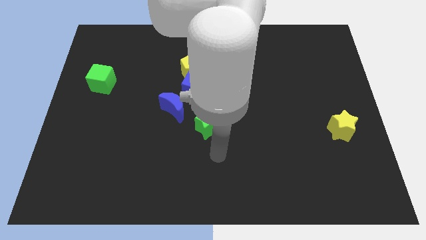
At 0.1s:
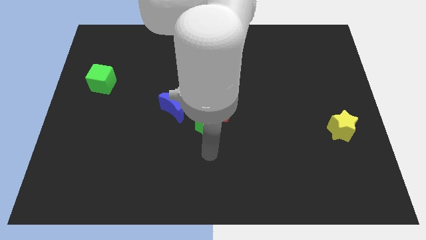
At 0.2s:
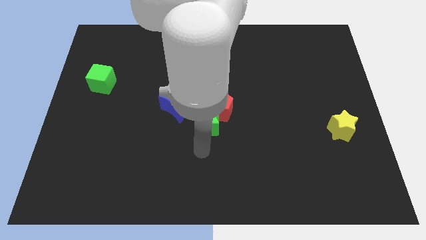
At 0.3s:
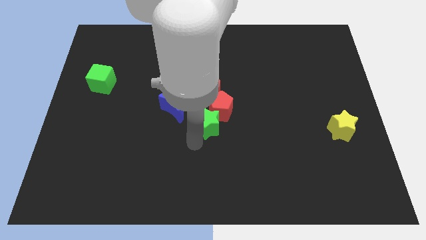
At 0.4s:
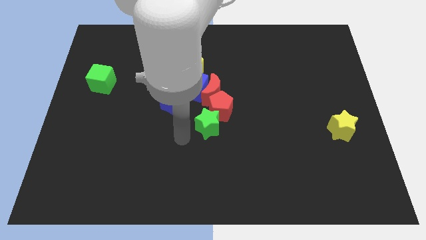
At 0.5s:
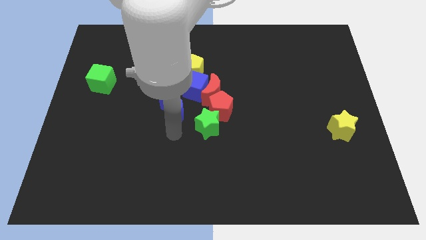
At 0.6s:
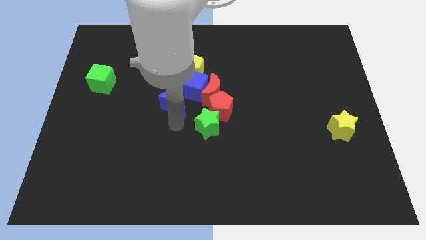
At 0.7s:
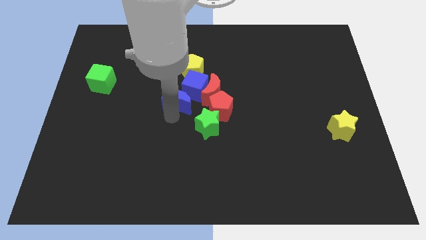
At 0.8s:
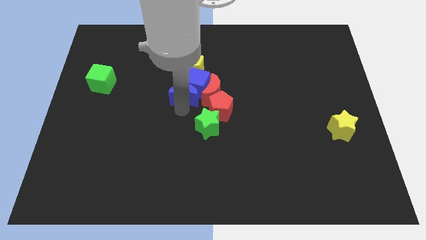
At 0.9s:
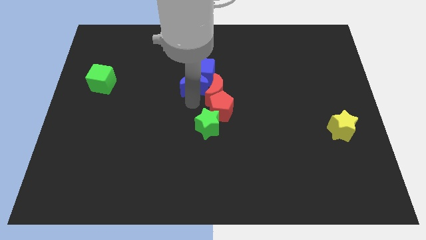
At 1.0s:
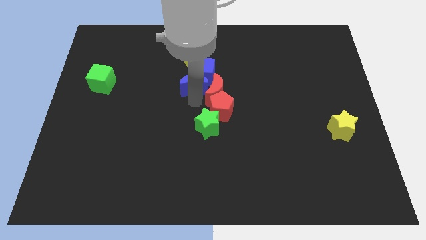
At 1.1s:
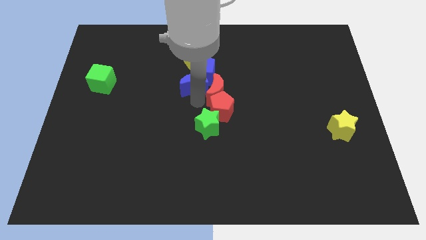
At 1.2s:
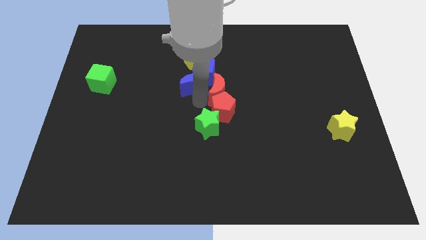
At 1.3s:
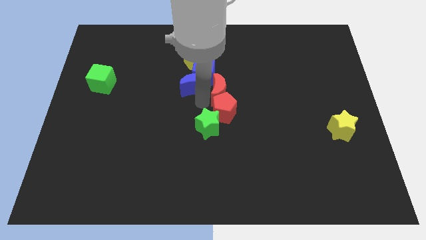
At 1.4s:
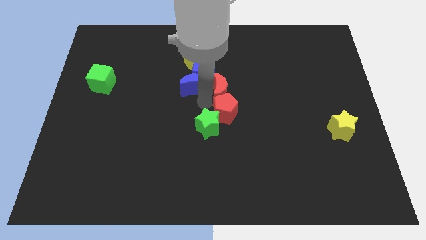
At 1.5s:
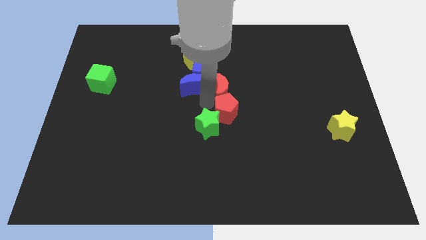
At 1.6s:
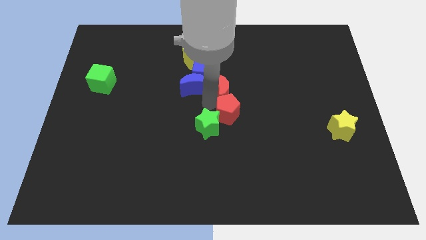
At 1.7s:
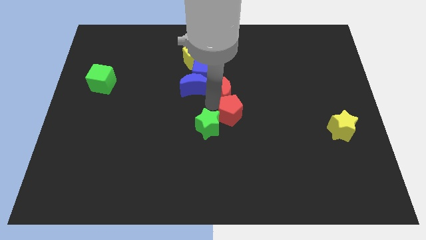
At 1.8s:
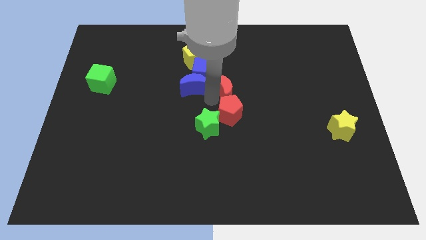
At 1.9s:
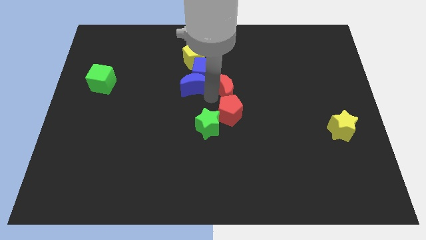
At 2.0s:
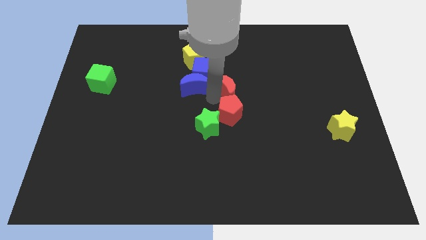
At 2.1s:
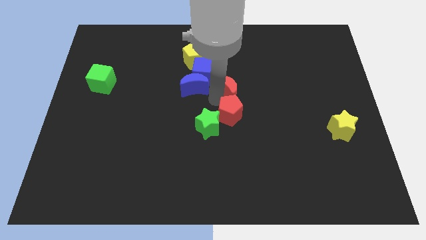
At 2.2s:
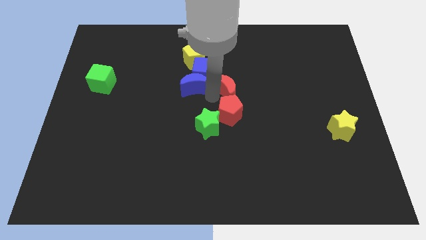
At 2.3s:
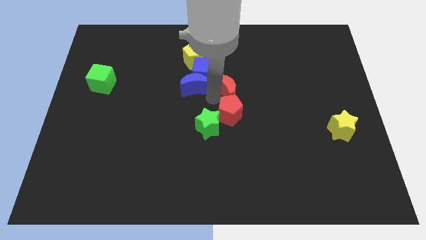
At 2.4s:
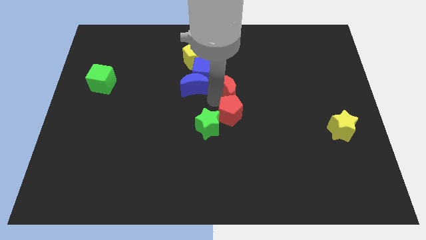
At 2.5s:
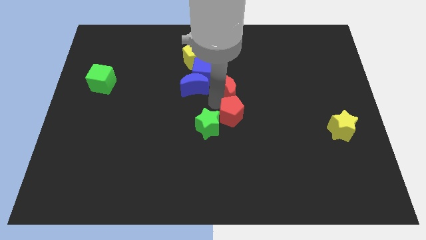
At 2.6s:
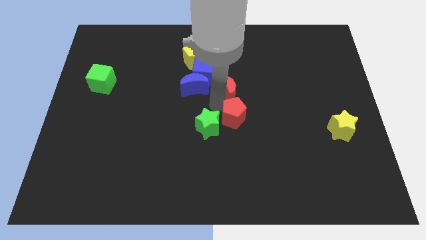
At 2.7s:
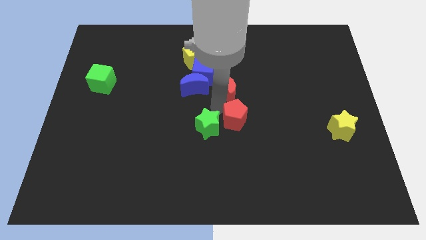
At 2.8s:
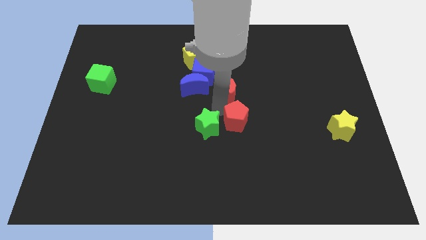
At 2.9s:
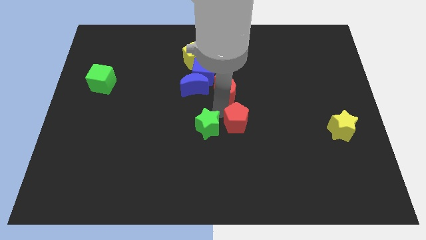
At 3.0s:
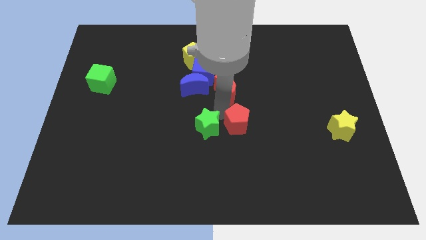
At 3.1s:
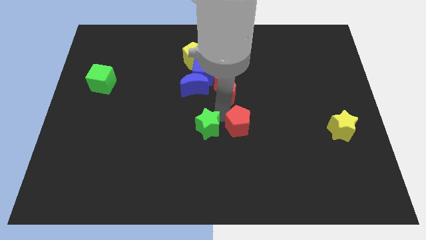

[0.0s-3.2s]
separate the red pentagon from the red moon, green star, and blue cube

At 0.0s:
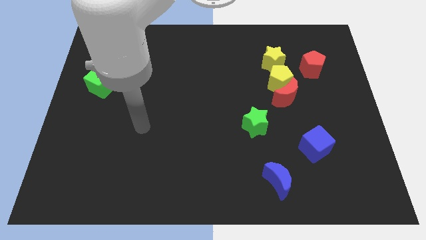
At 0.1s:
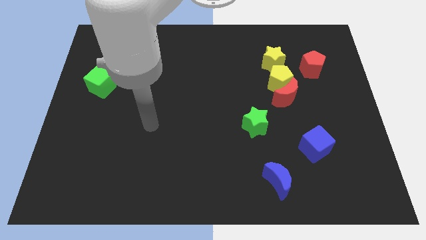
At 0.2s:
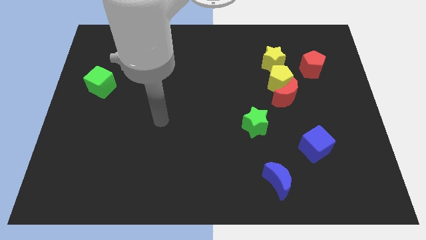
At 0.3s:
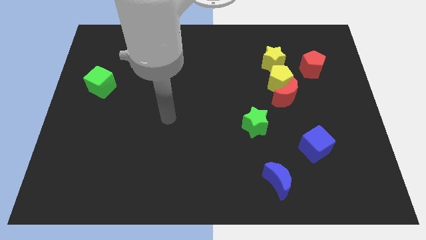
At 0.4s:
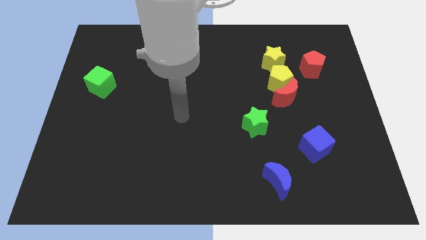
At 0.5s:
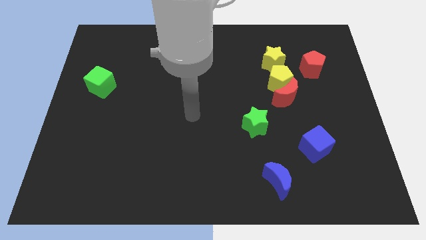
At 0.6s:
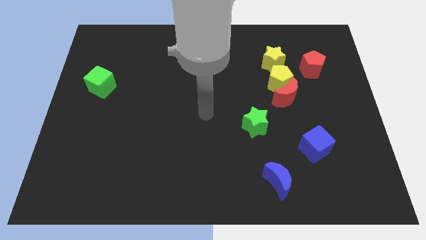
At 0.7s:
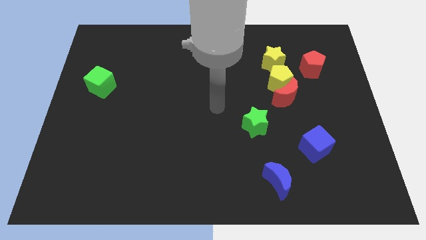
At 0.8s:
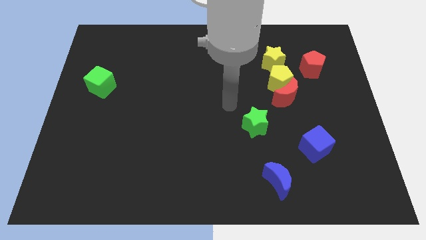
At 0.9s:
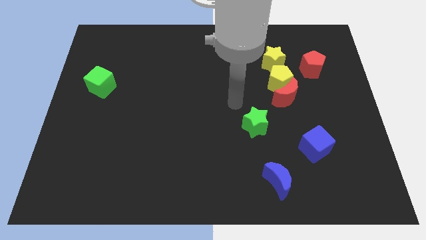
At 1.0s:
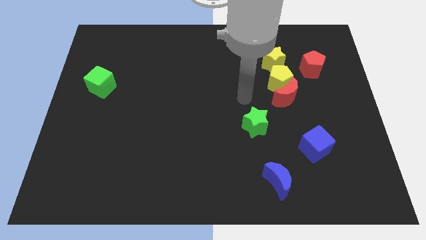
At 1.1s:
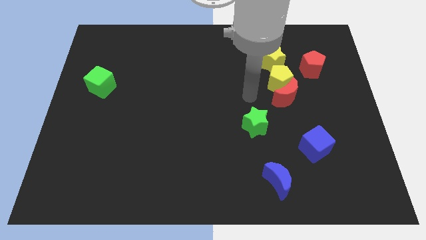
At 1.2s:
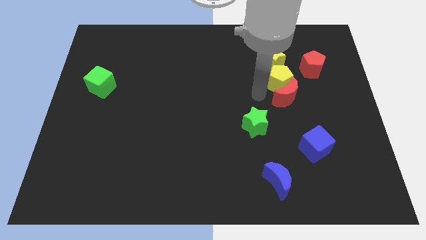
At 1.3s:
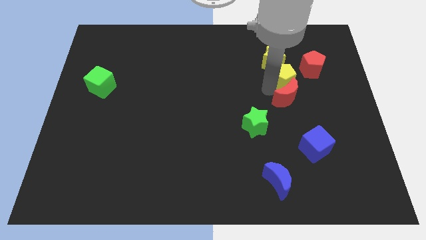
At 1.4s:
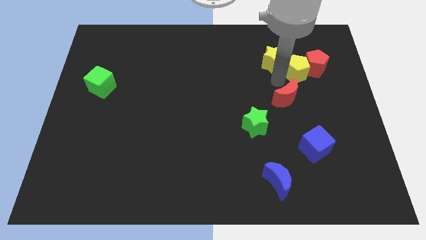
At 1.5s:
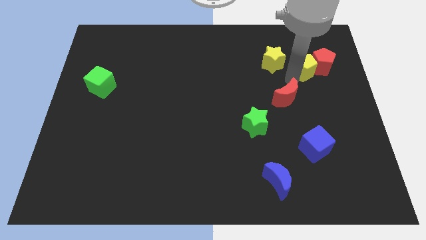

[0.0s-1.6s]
separate the red moon from the yellow pentagon

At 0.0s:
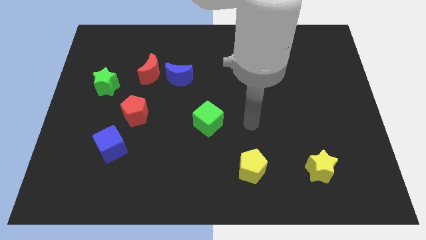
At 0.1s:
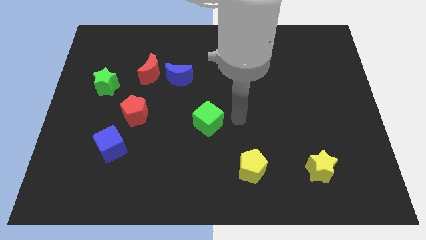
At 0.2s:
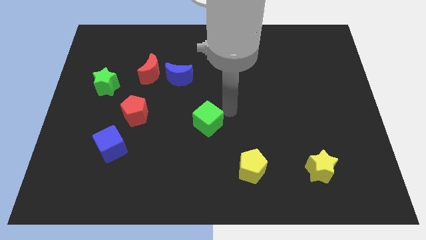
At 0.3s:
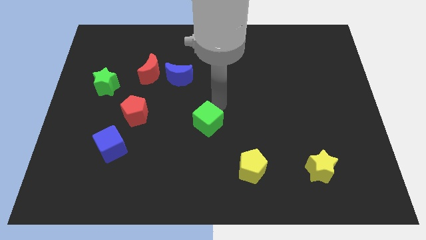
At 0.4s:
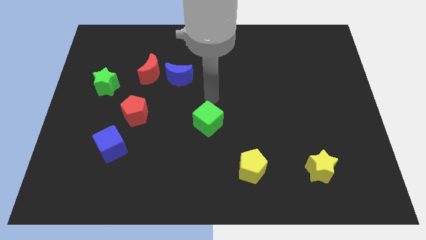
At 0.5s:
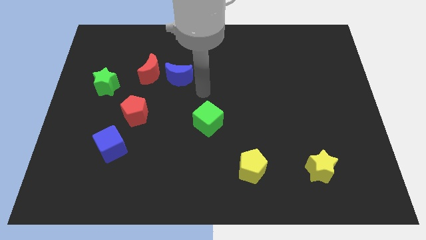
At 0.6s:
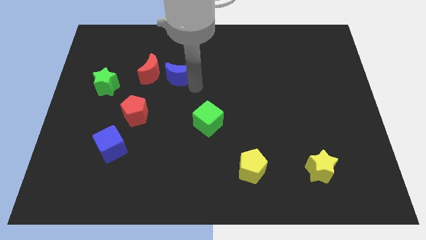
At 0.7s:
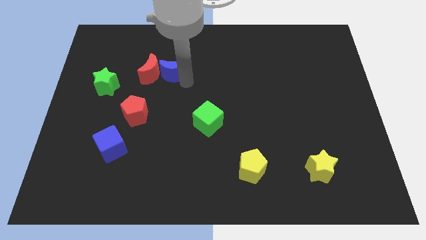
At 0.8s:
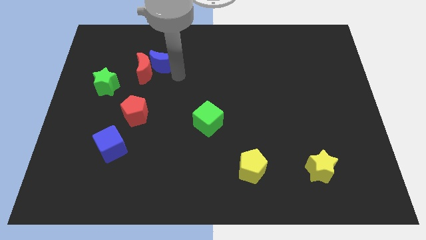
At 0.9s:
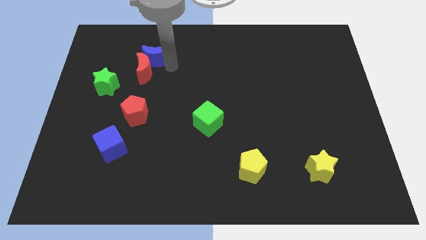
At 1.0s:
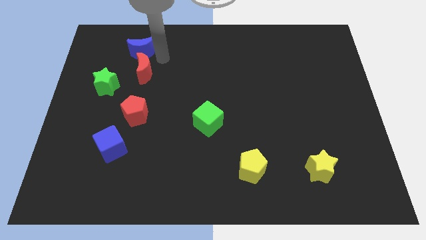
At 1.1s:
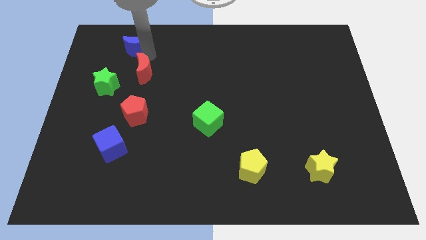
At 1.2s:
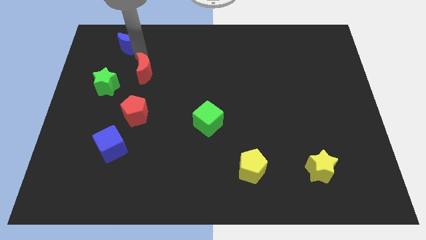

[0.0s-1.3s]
pull the red moon apart from the blue moon

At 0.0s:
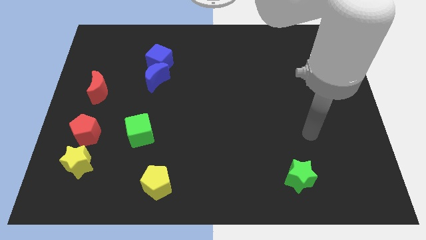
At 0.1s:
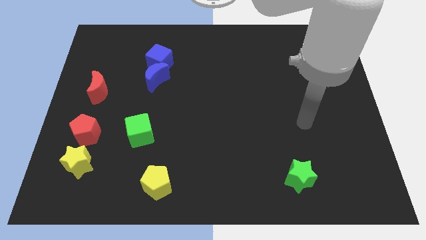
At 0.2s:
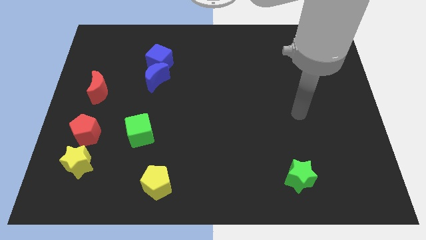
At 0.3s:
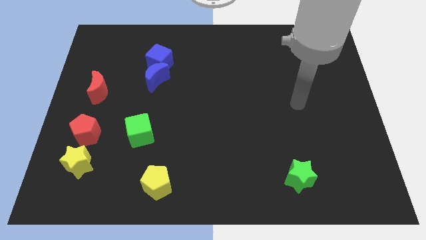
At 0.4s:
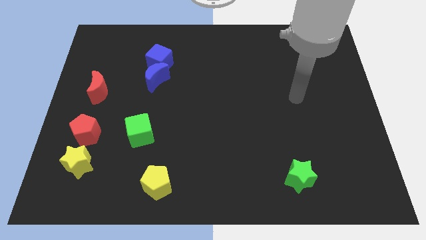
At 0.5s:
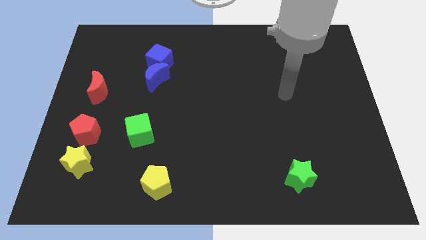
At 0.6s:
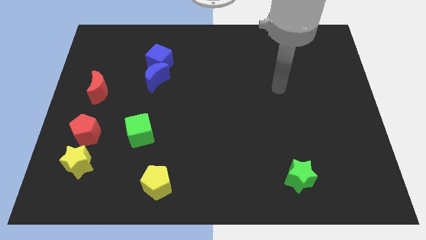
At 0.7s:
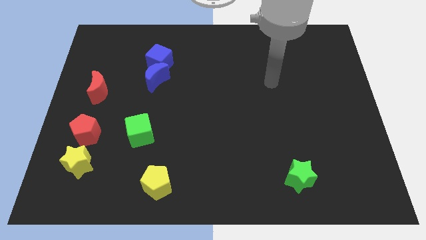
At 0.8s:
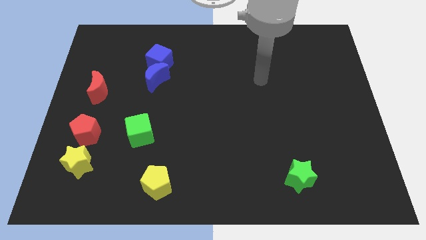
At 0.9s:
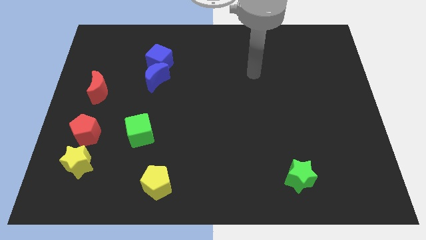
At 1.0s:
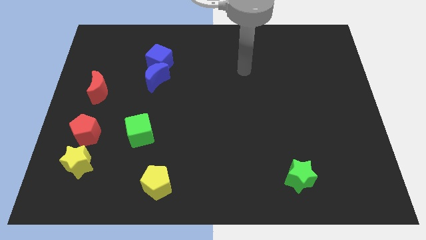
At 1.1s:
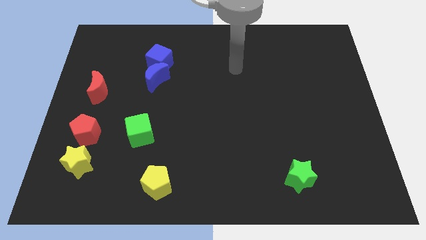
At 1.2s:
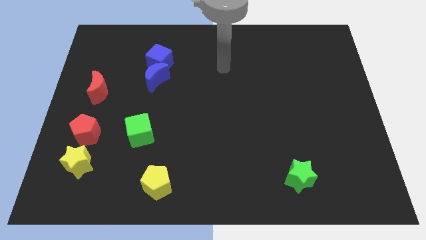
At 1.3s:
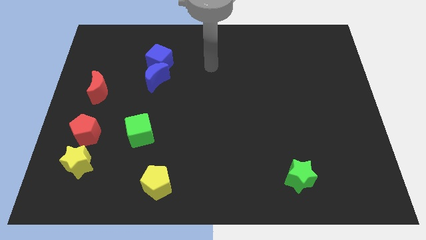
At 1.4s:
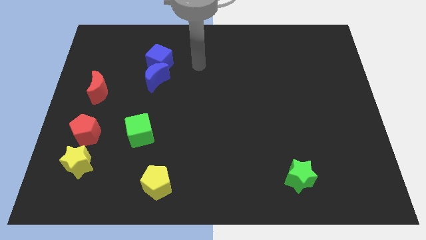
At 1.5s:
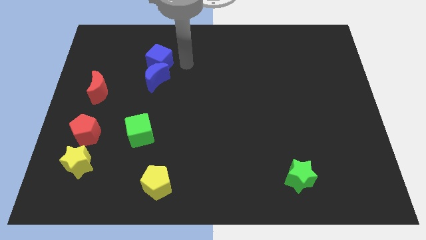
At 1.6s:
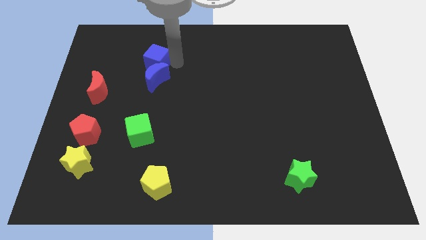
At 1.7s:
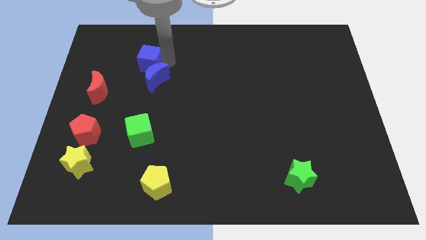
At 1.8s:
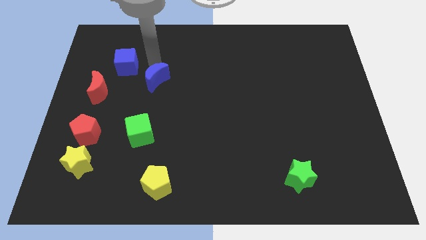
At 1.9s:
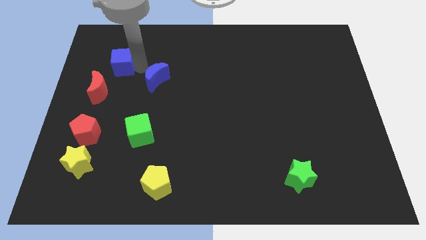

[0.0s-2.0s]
pull the blue moon apart from the blue cube

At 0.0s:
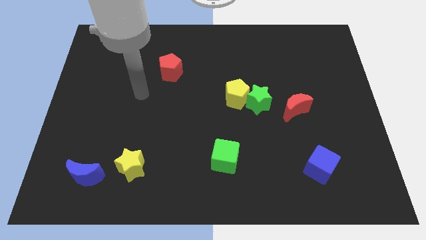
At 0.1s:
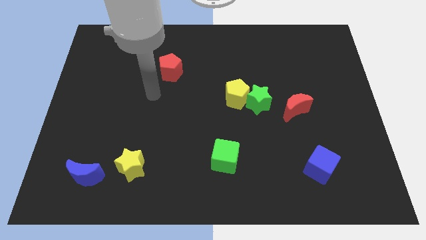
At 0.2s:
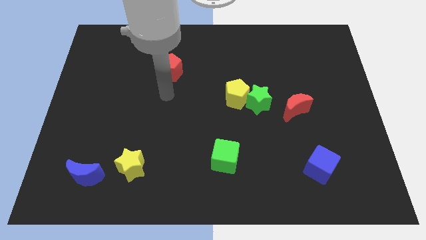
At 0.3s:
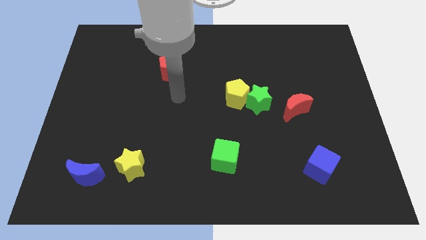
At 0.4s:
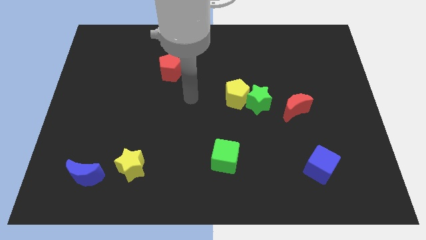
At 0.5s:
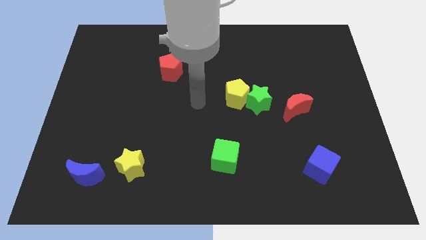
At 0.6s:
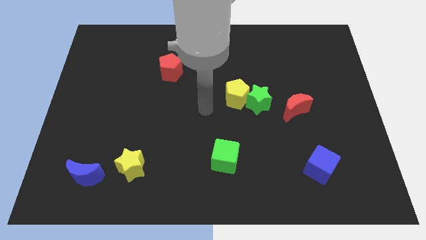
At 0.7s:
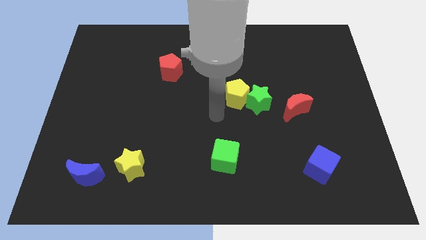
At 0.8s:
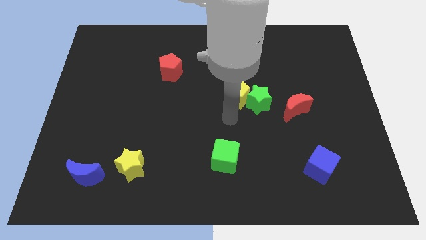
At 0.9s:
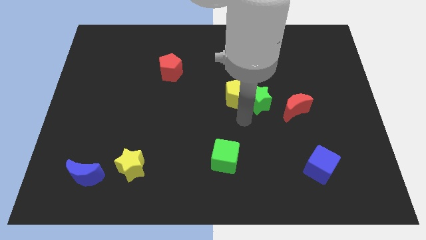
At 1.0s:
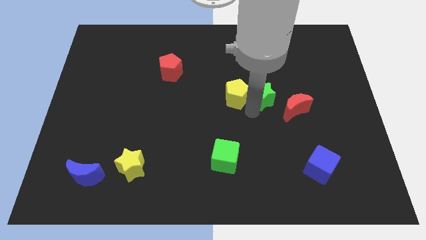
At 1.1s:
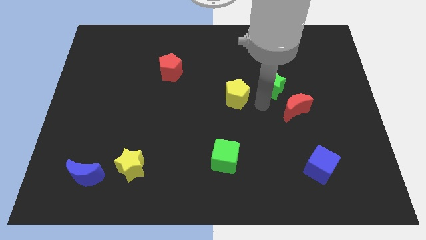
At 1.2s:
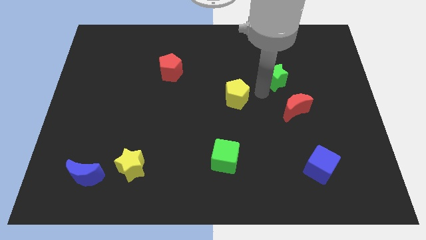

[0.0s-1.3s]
separate the yellow pentagon from the green star
